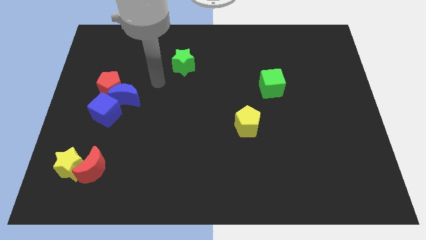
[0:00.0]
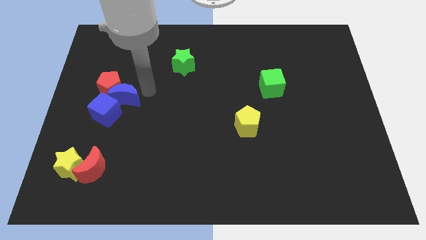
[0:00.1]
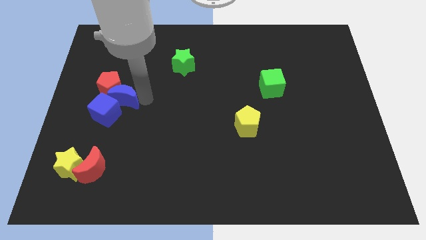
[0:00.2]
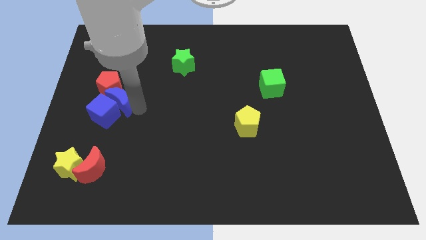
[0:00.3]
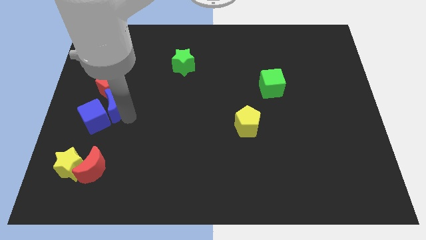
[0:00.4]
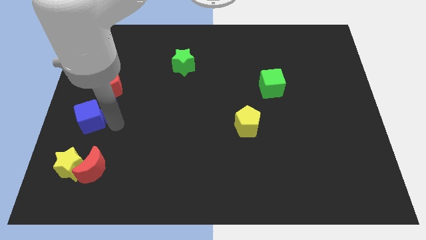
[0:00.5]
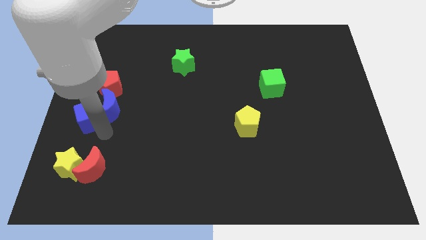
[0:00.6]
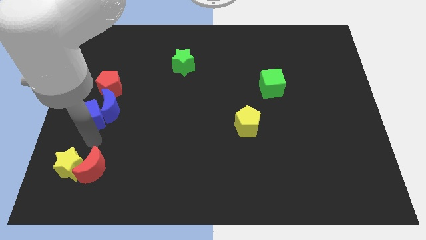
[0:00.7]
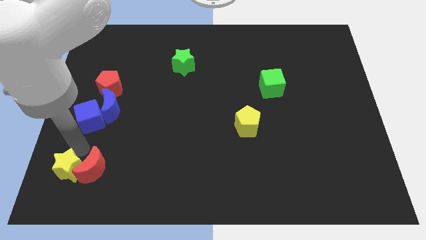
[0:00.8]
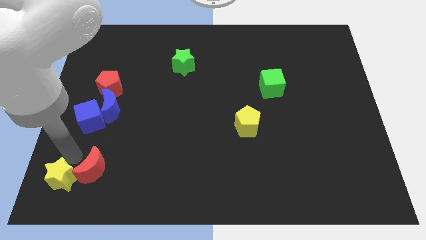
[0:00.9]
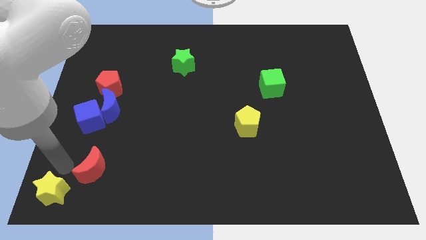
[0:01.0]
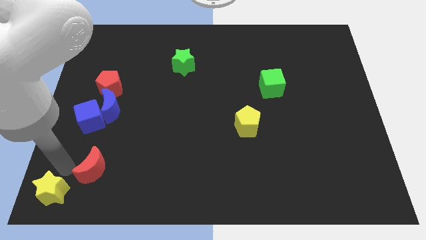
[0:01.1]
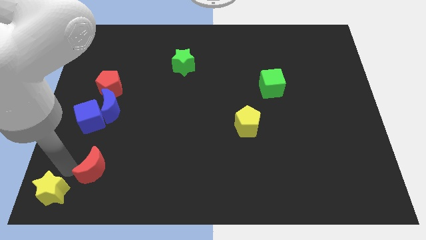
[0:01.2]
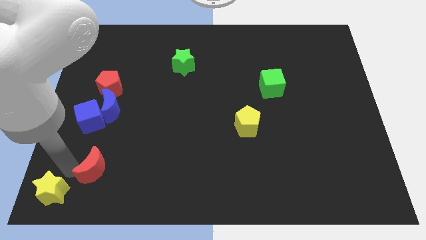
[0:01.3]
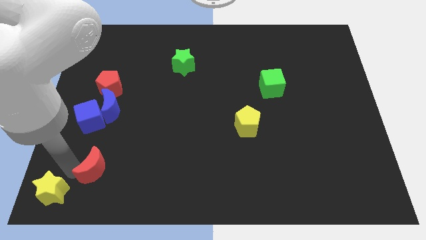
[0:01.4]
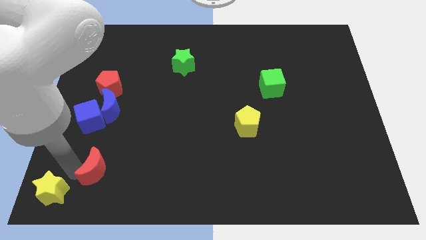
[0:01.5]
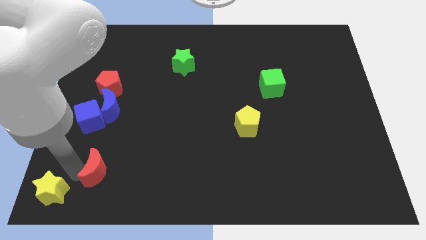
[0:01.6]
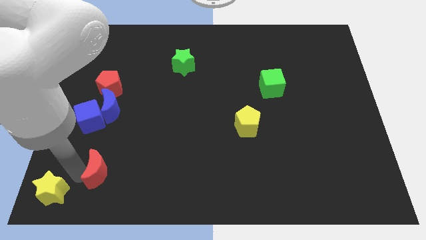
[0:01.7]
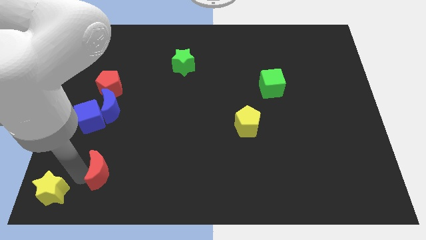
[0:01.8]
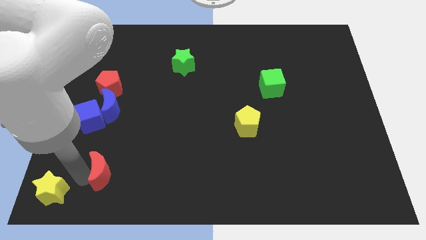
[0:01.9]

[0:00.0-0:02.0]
move the red moon away from the yellow star

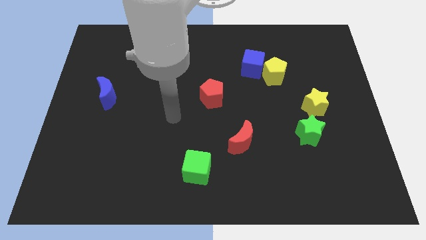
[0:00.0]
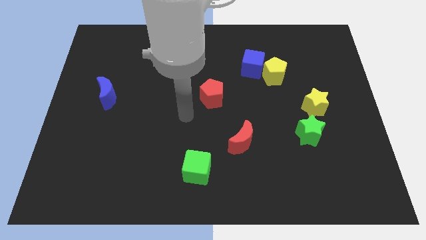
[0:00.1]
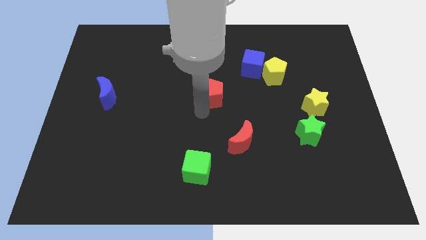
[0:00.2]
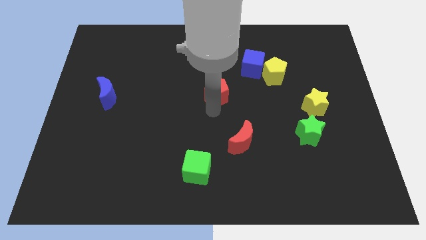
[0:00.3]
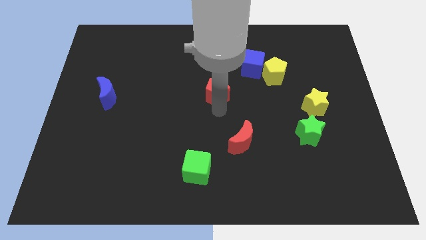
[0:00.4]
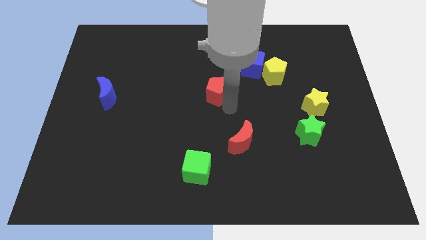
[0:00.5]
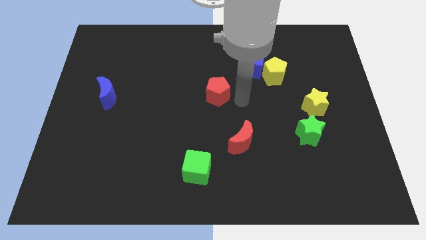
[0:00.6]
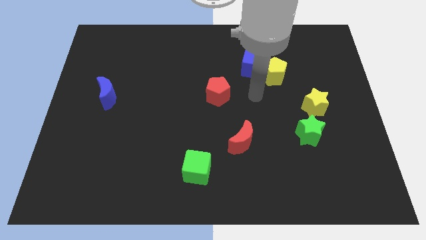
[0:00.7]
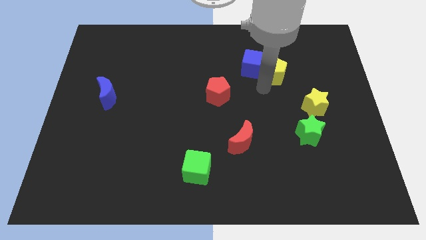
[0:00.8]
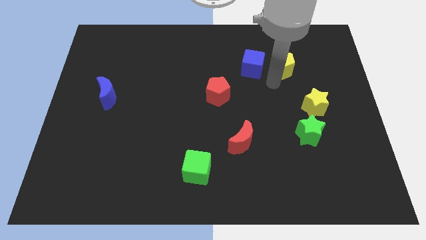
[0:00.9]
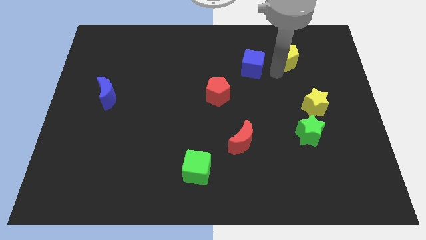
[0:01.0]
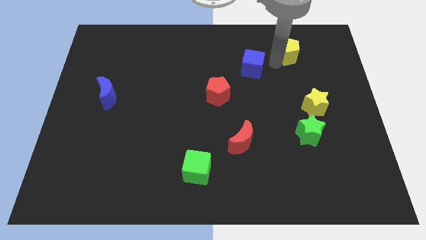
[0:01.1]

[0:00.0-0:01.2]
separate the blue cube from the yellow pentagon

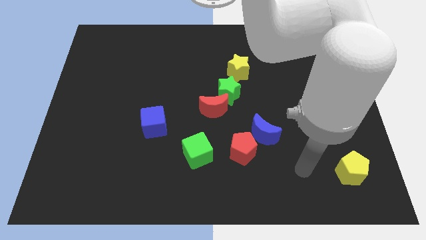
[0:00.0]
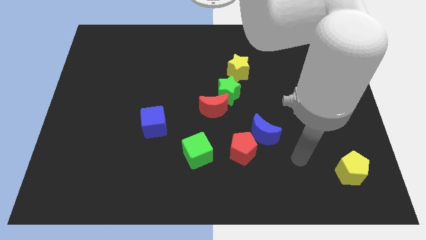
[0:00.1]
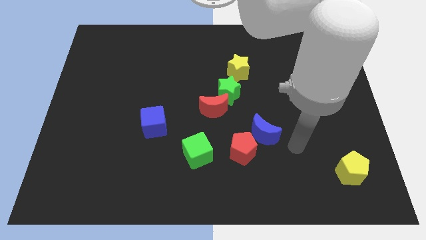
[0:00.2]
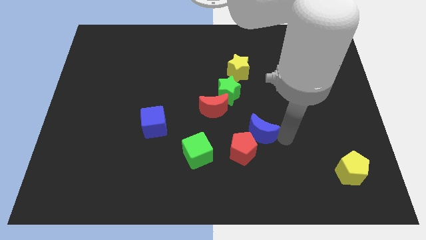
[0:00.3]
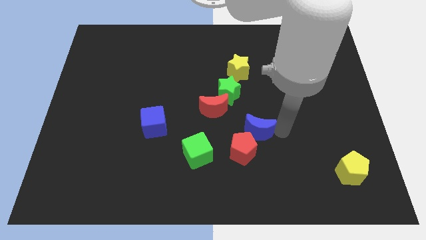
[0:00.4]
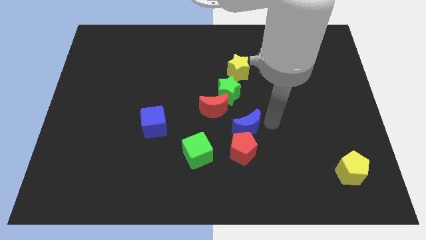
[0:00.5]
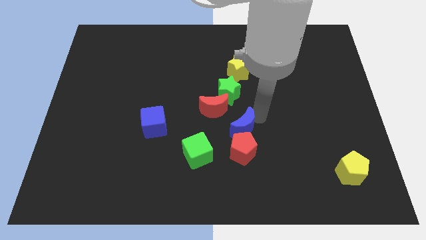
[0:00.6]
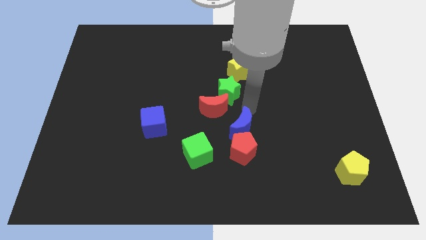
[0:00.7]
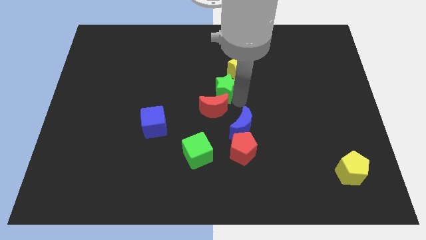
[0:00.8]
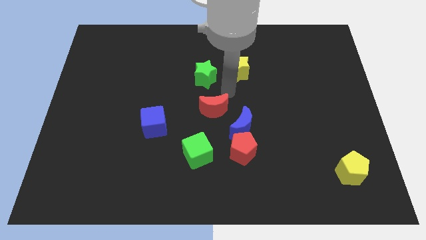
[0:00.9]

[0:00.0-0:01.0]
move the red moon away from the green star

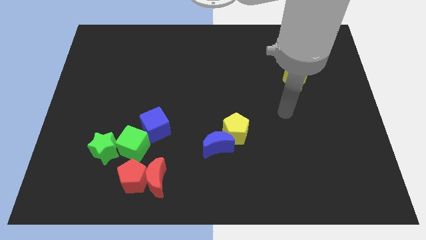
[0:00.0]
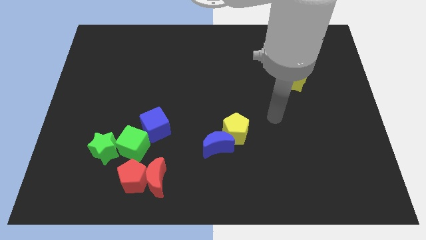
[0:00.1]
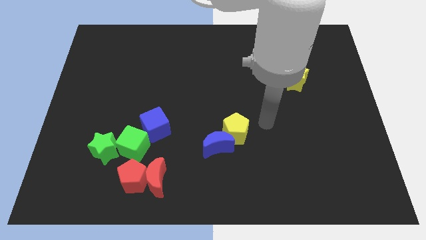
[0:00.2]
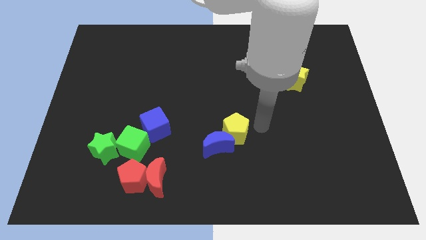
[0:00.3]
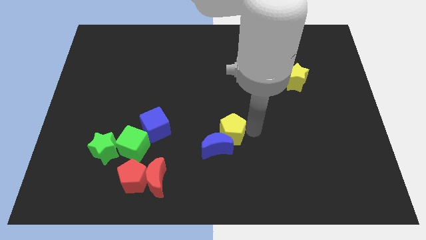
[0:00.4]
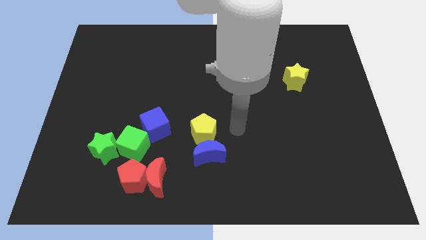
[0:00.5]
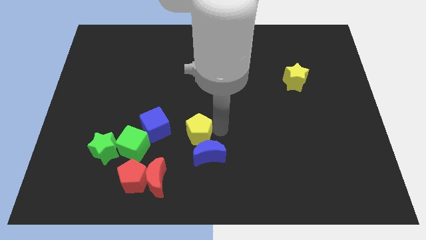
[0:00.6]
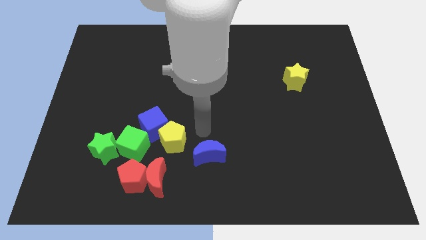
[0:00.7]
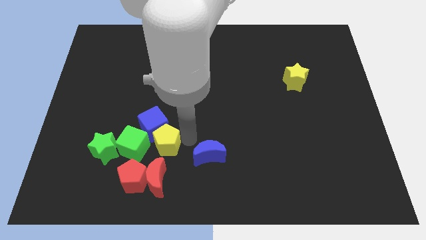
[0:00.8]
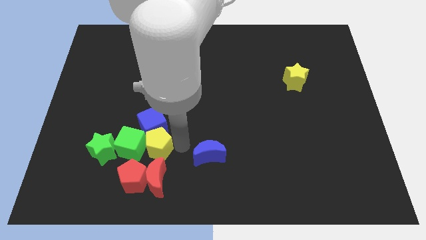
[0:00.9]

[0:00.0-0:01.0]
separate the blue moon from the yellow pentagon

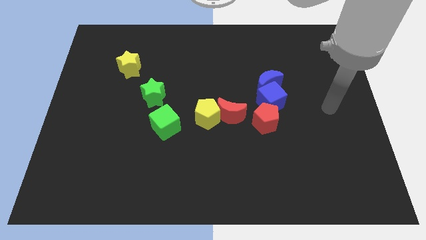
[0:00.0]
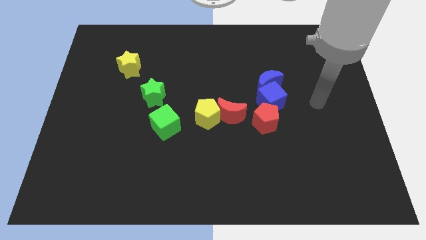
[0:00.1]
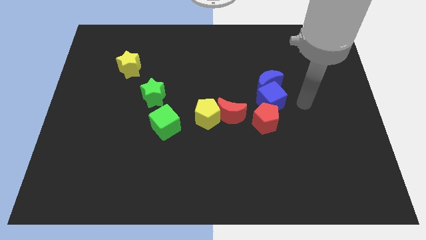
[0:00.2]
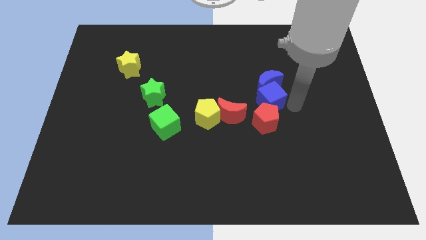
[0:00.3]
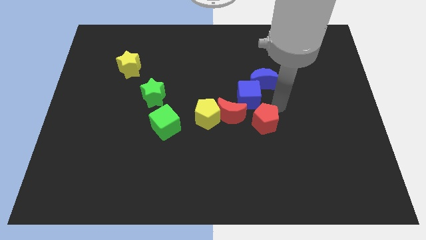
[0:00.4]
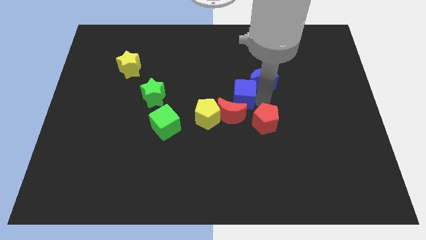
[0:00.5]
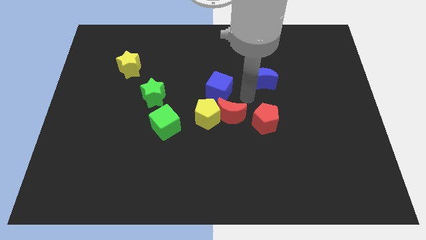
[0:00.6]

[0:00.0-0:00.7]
pull the blue moon apart from the blue cube

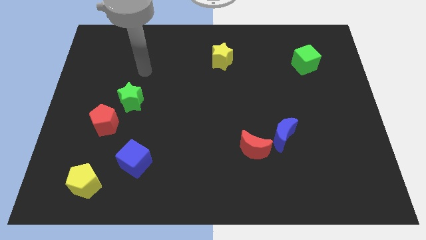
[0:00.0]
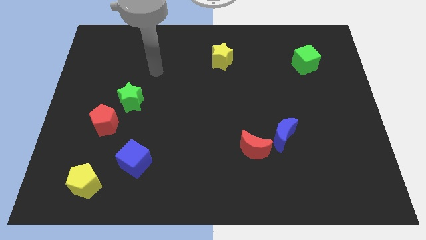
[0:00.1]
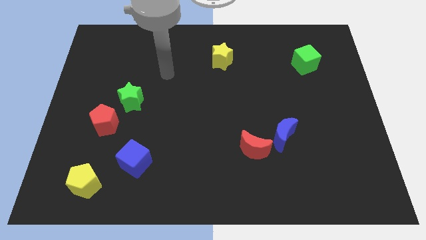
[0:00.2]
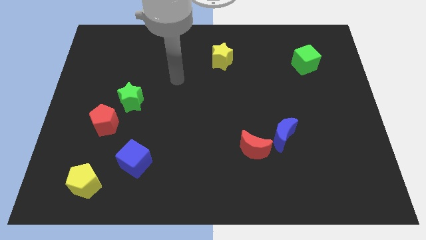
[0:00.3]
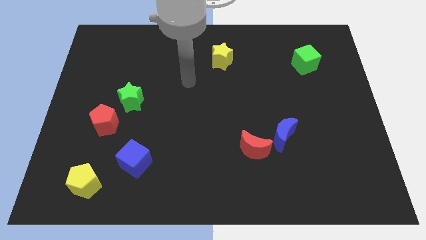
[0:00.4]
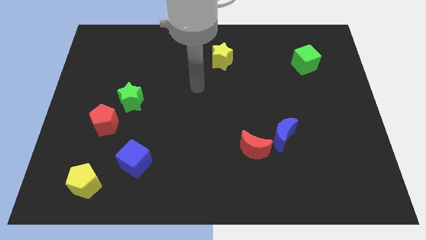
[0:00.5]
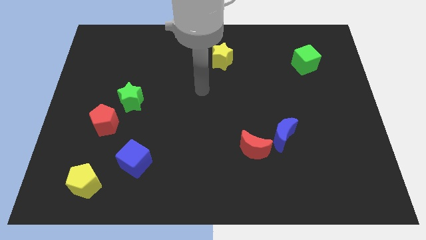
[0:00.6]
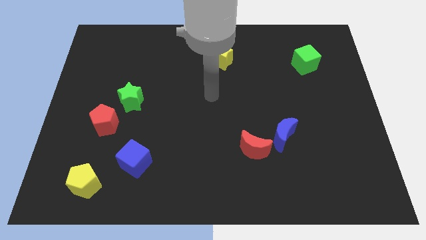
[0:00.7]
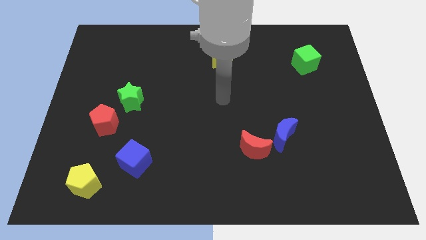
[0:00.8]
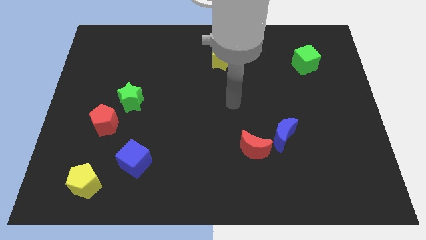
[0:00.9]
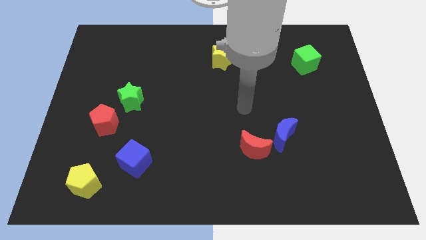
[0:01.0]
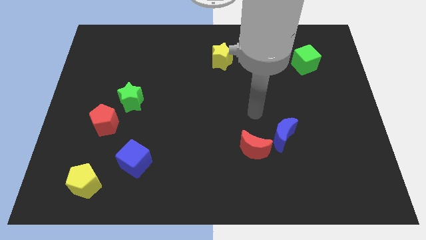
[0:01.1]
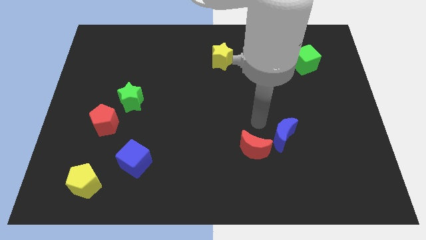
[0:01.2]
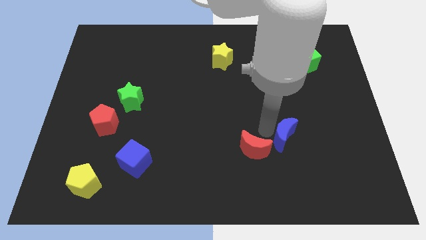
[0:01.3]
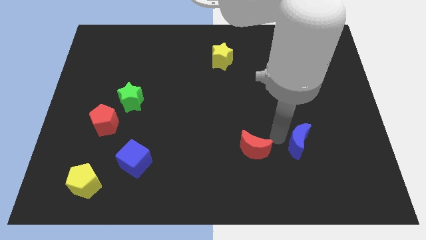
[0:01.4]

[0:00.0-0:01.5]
move the red moon away from the blue moon

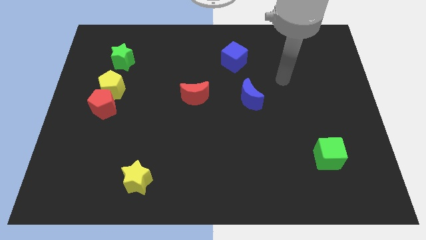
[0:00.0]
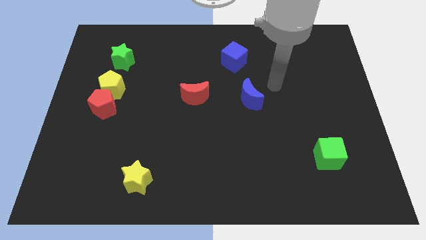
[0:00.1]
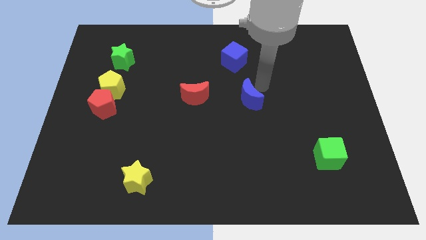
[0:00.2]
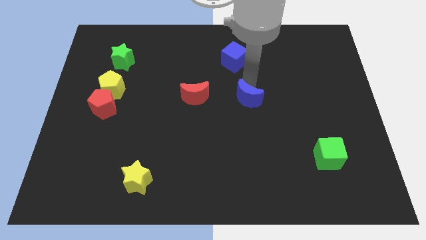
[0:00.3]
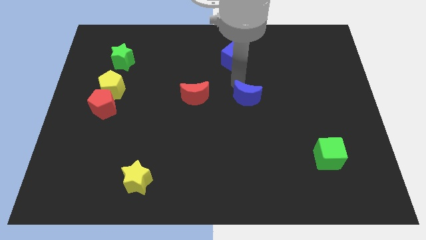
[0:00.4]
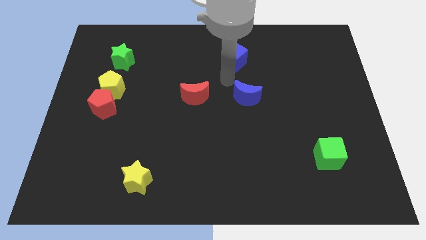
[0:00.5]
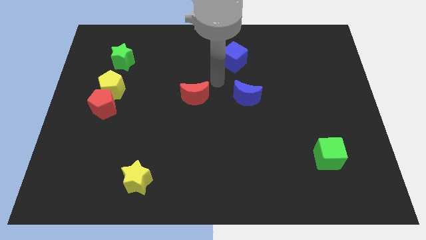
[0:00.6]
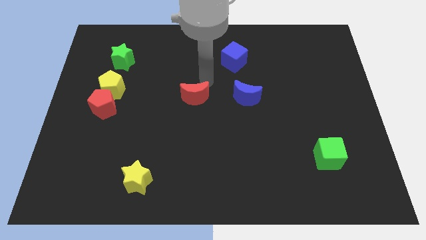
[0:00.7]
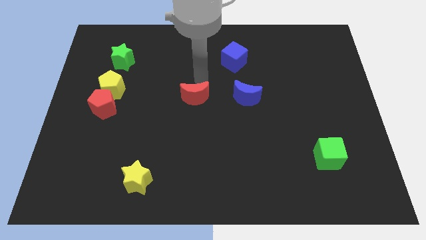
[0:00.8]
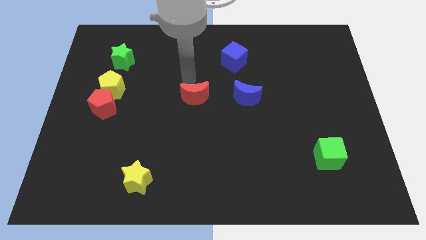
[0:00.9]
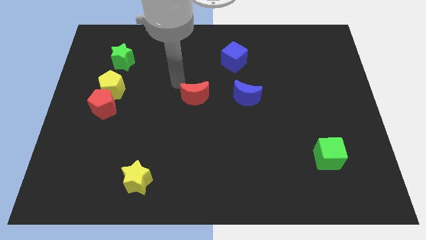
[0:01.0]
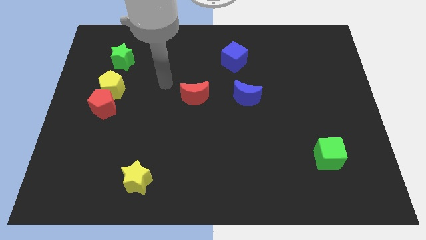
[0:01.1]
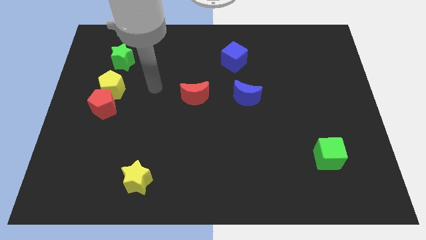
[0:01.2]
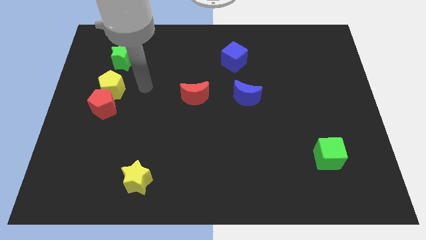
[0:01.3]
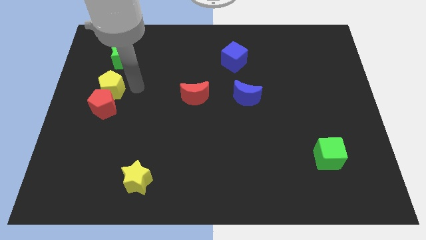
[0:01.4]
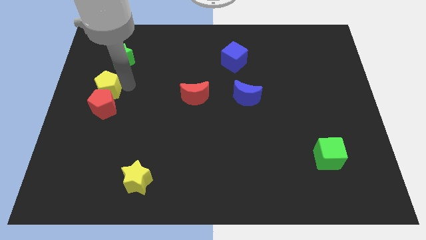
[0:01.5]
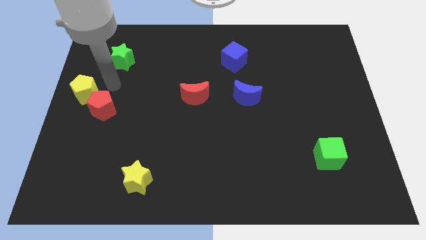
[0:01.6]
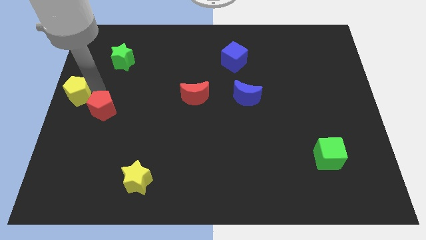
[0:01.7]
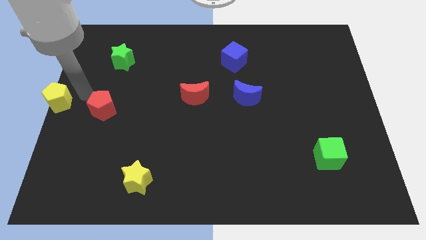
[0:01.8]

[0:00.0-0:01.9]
pull the red pentagon apart from the yellow pentagon

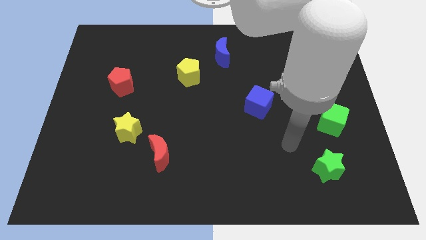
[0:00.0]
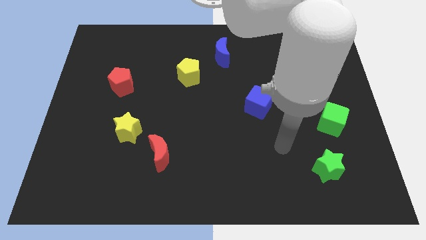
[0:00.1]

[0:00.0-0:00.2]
separate the red moon from the yellow star
